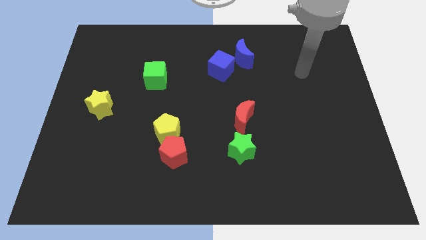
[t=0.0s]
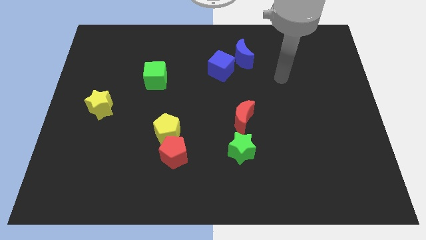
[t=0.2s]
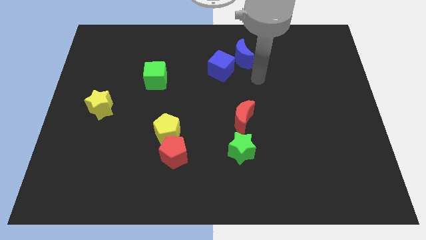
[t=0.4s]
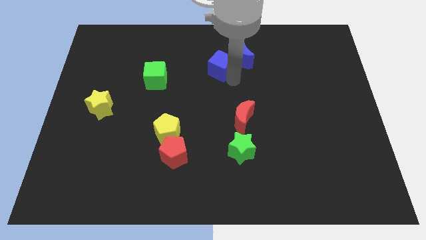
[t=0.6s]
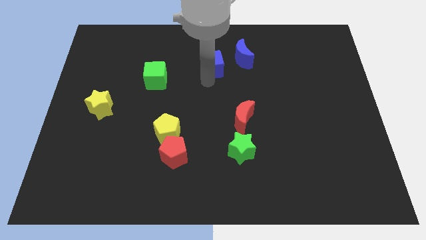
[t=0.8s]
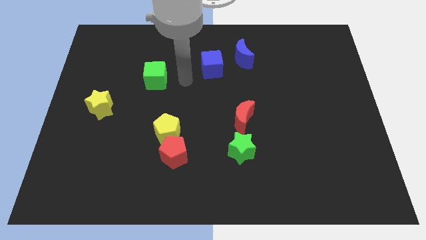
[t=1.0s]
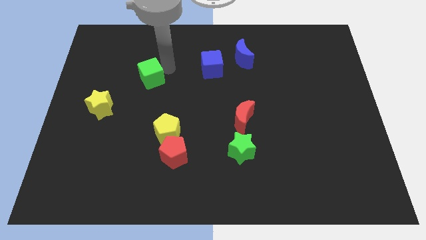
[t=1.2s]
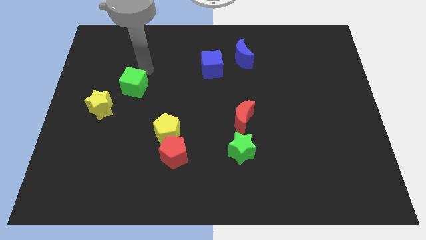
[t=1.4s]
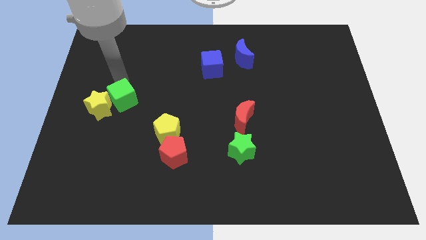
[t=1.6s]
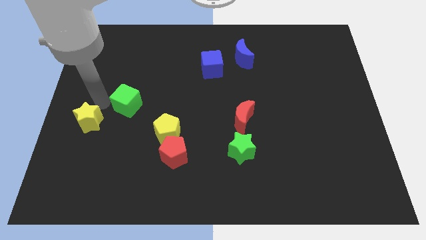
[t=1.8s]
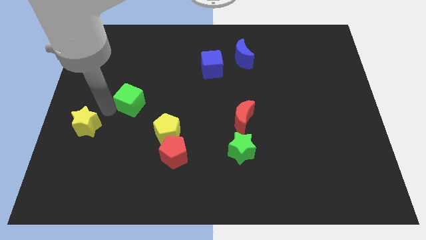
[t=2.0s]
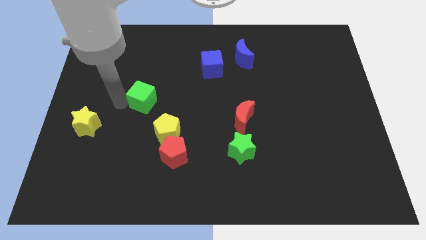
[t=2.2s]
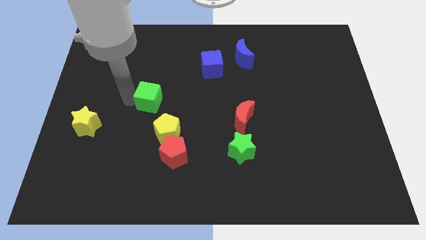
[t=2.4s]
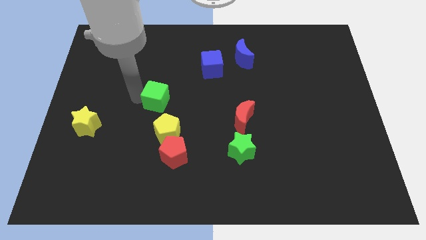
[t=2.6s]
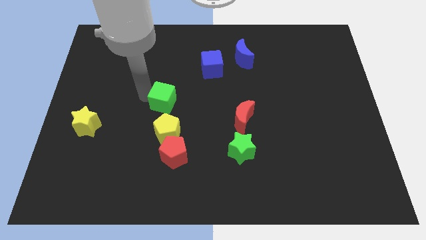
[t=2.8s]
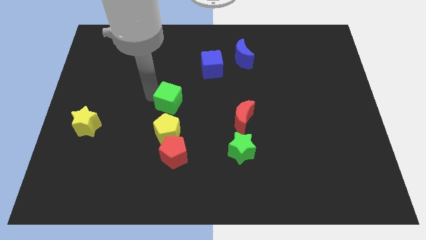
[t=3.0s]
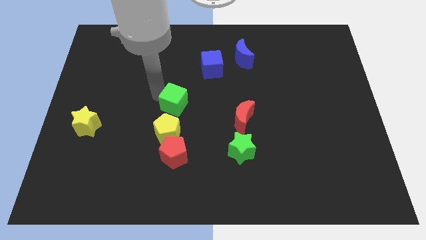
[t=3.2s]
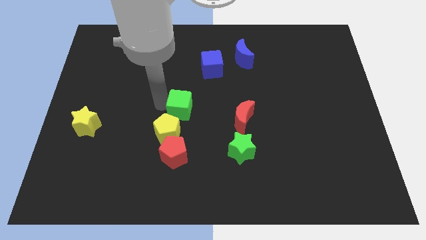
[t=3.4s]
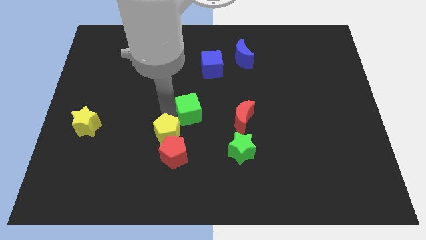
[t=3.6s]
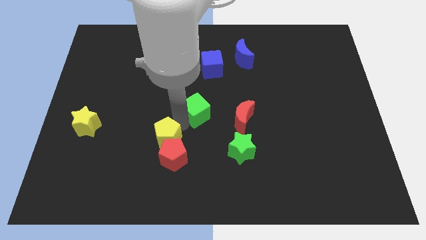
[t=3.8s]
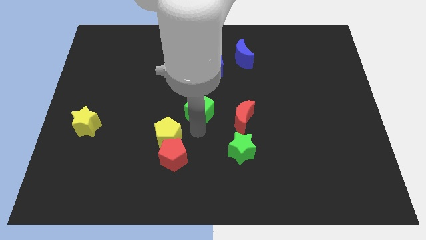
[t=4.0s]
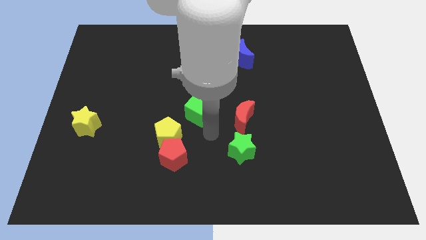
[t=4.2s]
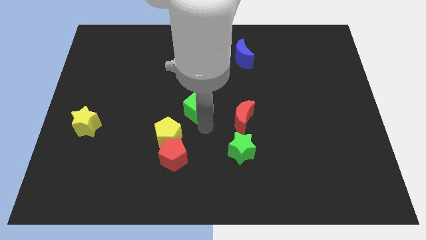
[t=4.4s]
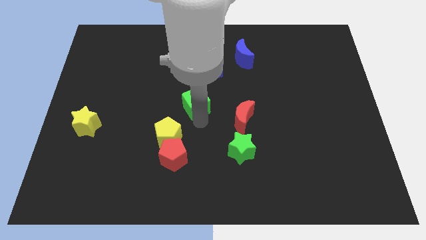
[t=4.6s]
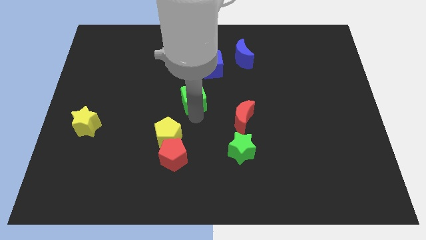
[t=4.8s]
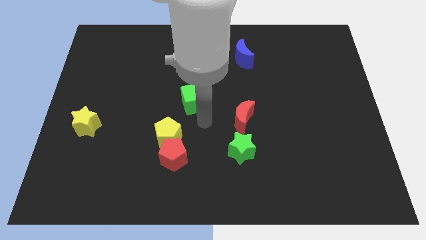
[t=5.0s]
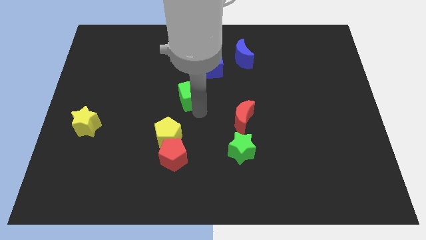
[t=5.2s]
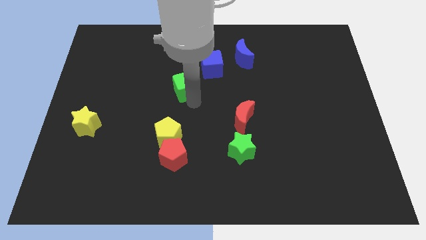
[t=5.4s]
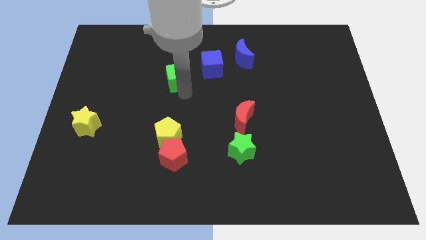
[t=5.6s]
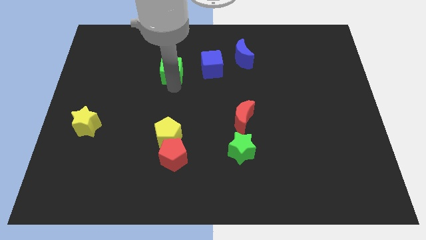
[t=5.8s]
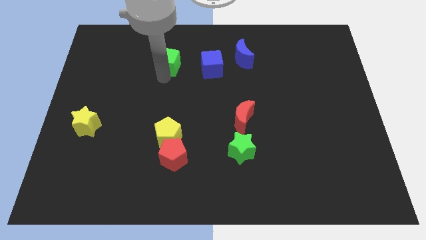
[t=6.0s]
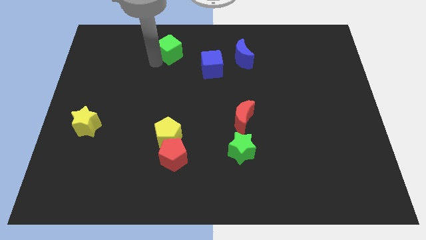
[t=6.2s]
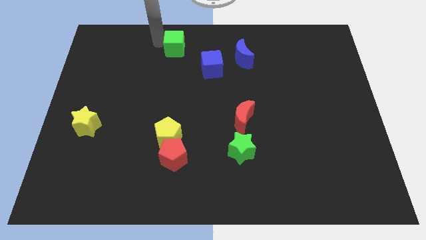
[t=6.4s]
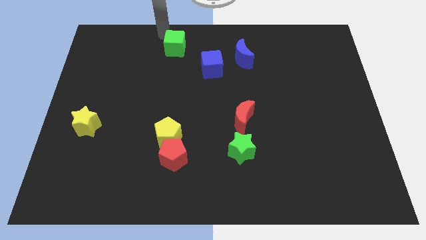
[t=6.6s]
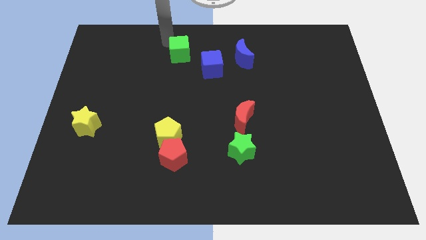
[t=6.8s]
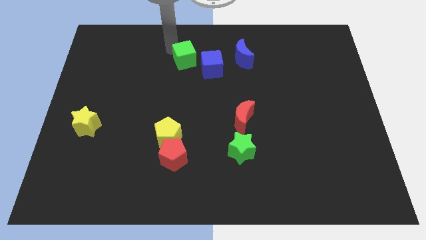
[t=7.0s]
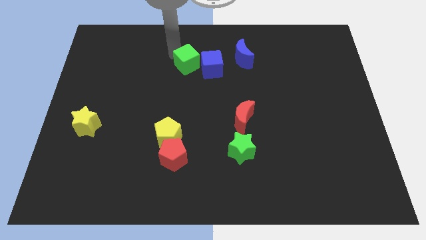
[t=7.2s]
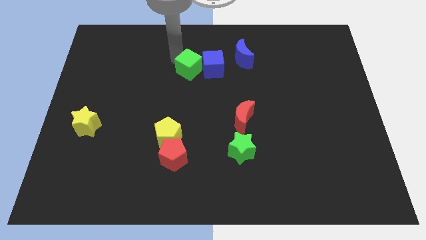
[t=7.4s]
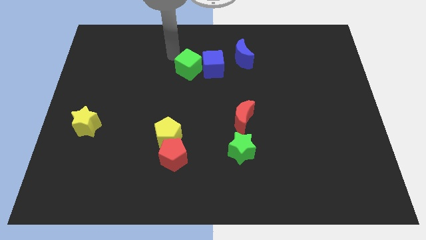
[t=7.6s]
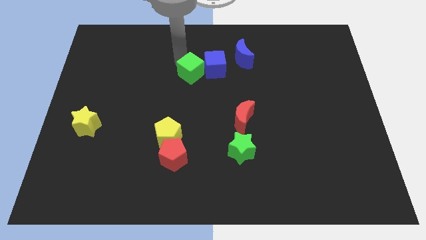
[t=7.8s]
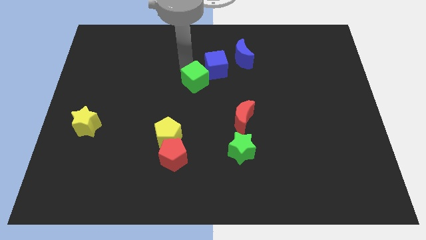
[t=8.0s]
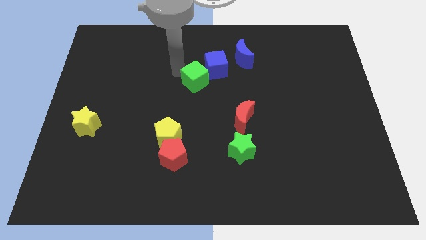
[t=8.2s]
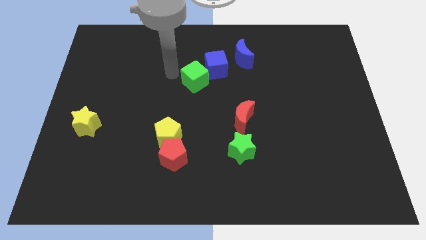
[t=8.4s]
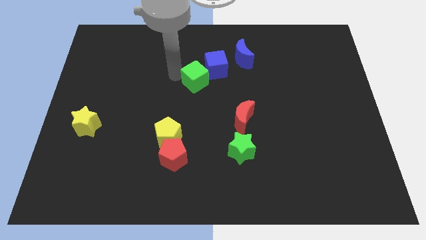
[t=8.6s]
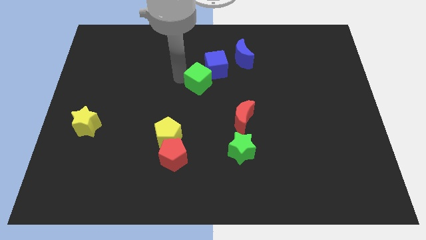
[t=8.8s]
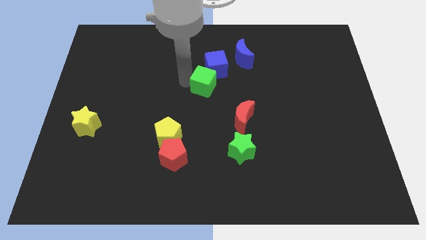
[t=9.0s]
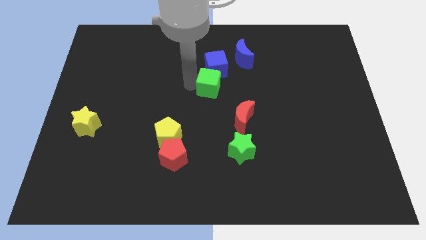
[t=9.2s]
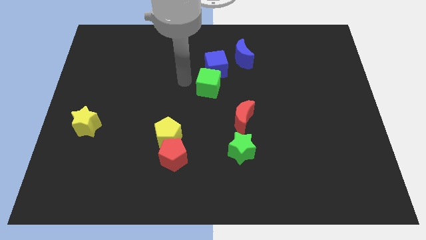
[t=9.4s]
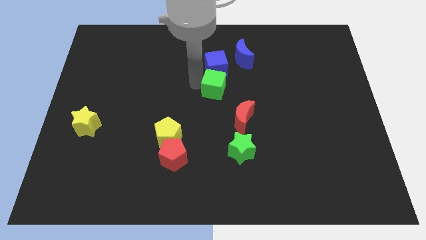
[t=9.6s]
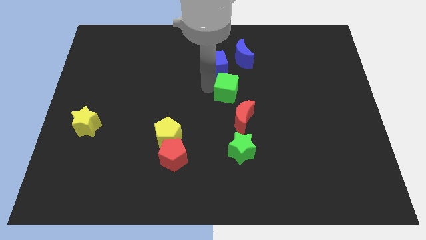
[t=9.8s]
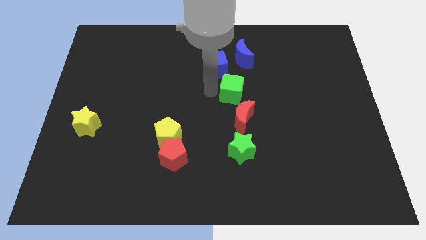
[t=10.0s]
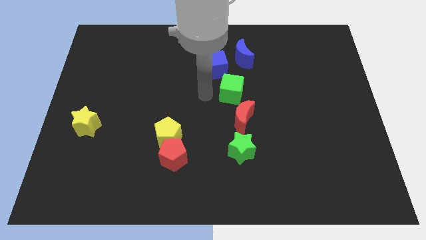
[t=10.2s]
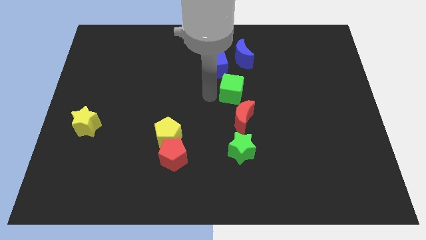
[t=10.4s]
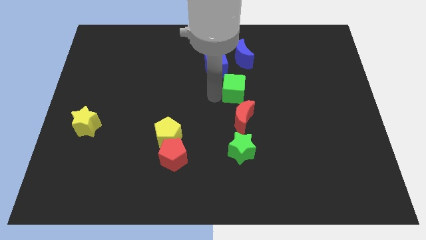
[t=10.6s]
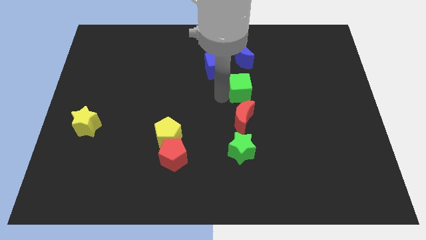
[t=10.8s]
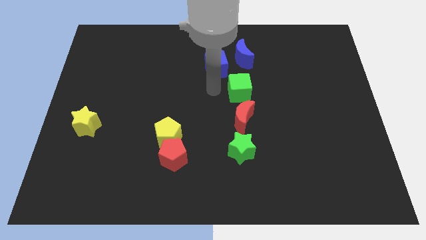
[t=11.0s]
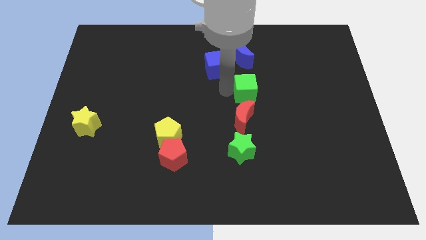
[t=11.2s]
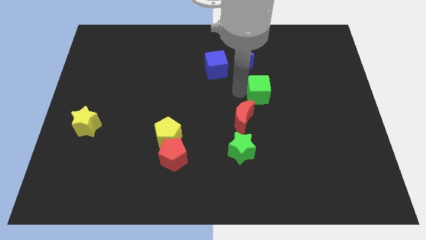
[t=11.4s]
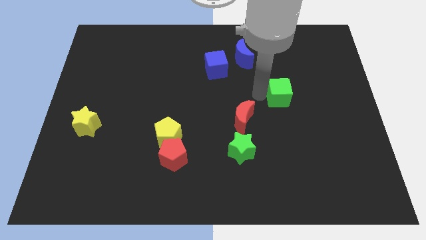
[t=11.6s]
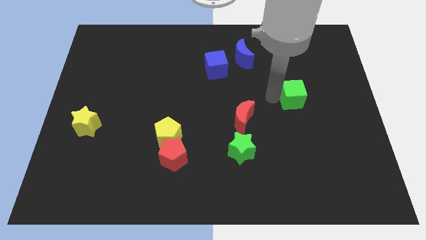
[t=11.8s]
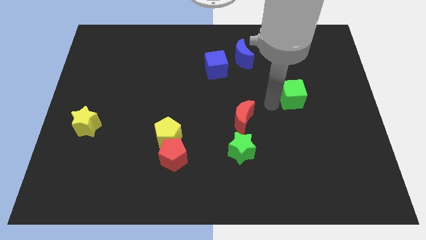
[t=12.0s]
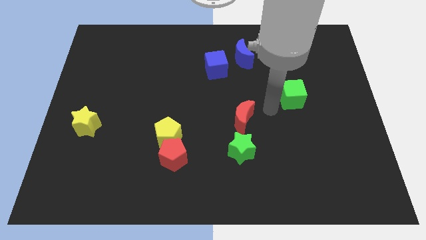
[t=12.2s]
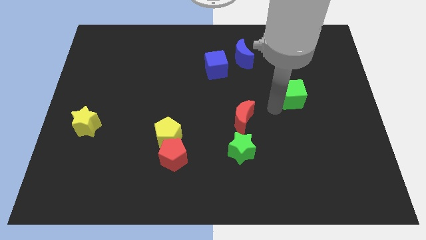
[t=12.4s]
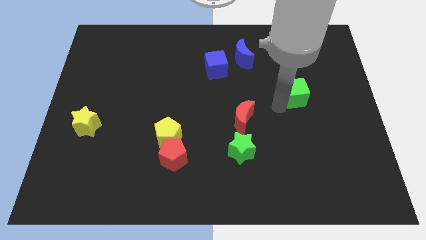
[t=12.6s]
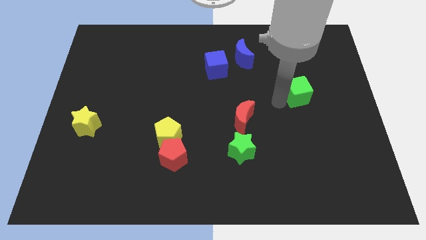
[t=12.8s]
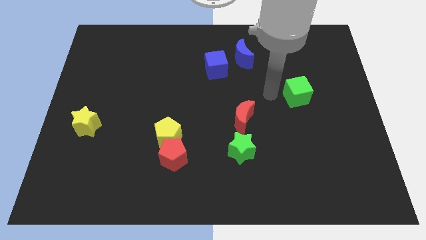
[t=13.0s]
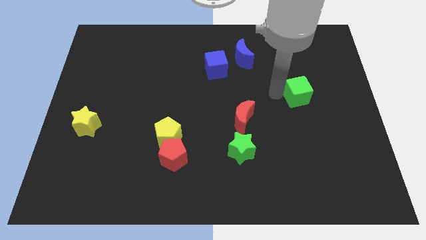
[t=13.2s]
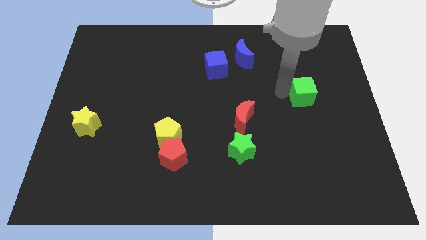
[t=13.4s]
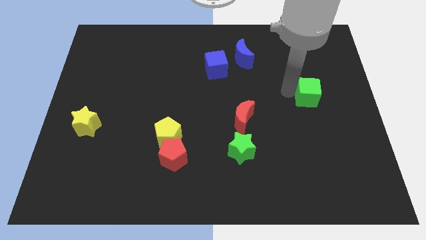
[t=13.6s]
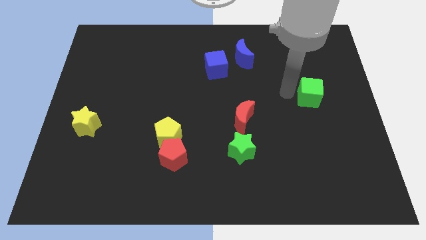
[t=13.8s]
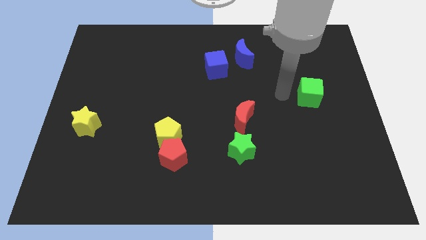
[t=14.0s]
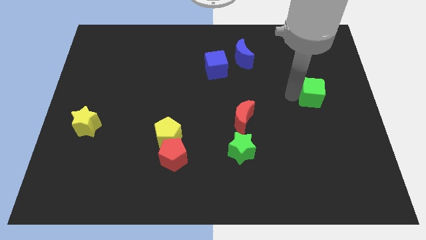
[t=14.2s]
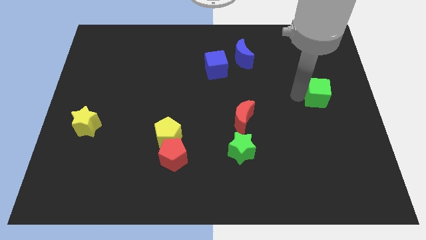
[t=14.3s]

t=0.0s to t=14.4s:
push the green cube to the right side of the board
